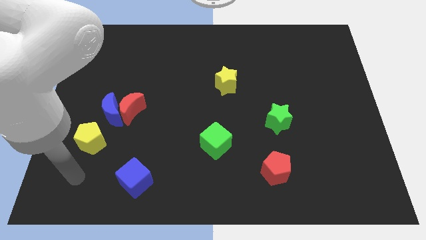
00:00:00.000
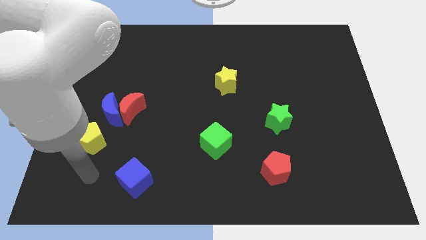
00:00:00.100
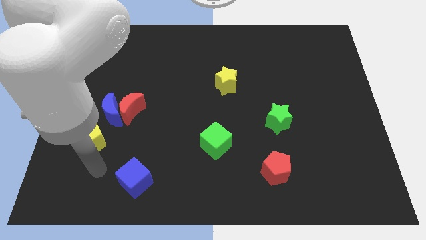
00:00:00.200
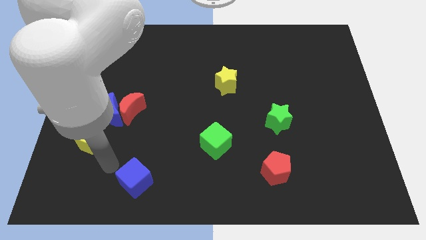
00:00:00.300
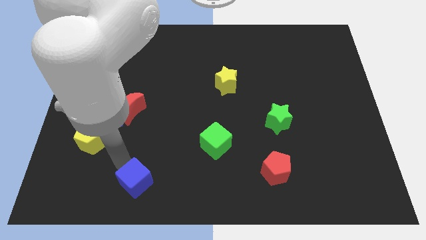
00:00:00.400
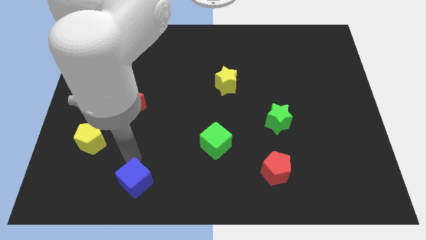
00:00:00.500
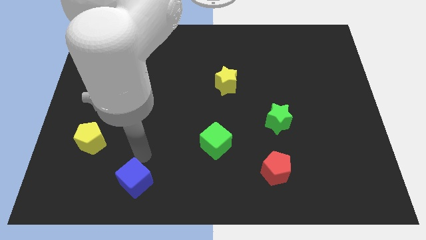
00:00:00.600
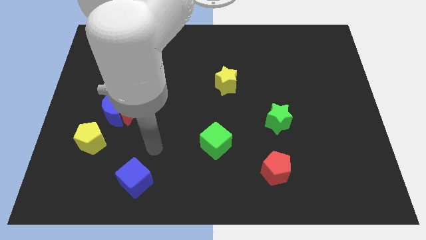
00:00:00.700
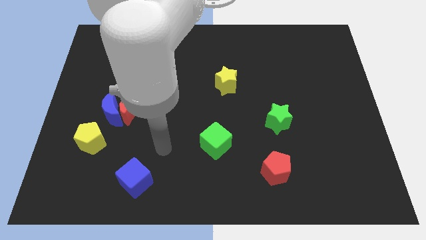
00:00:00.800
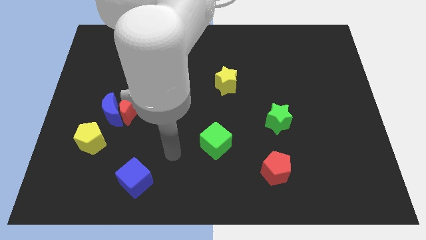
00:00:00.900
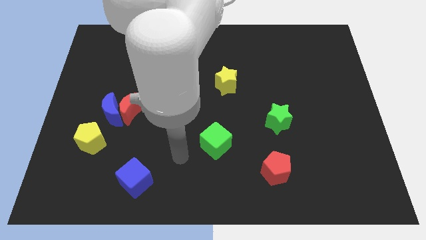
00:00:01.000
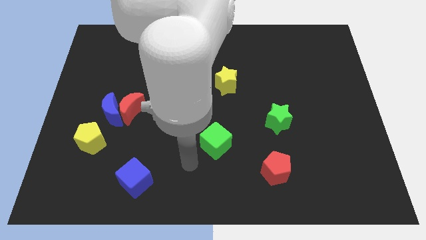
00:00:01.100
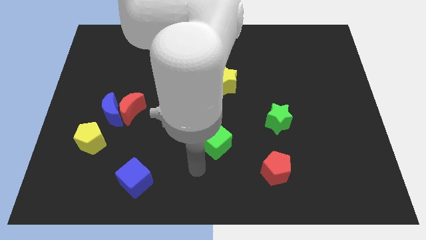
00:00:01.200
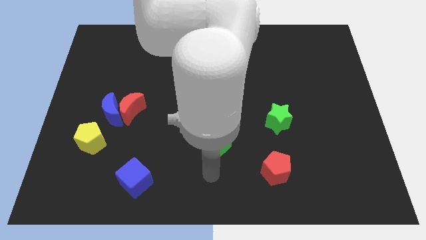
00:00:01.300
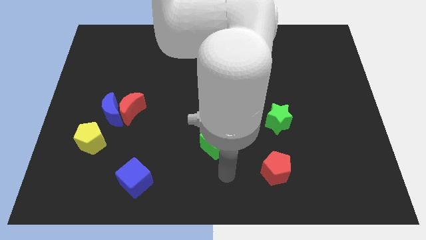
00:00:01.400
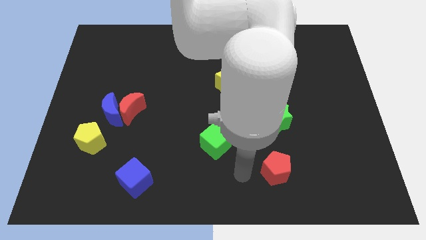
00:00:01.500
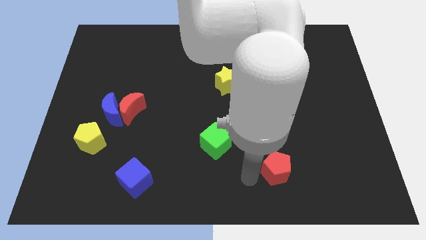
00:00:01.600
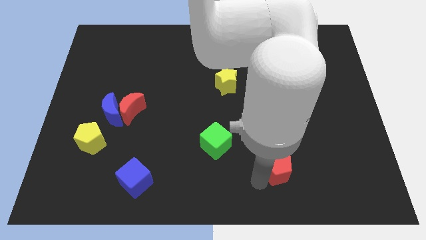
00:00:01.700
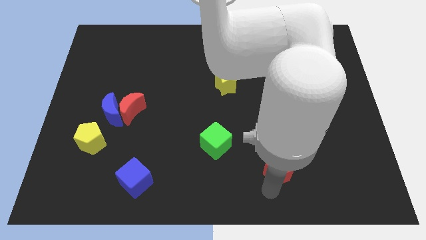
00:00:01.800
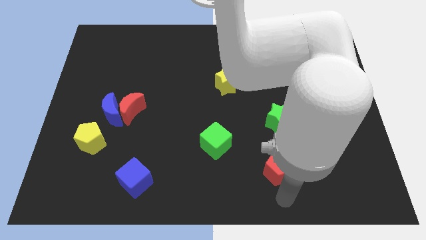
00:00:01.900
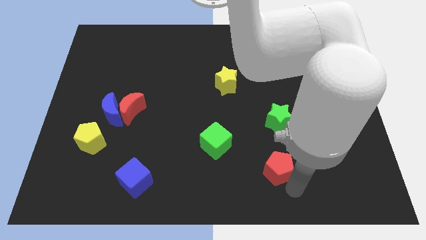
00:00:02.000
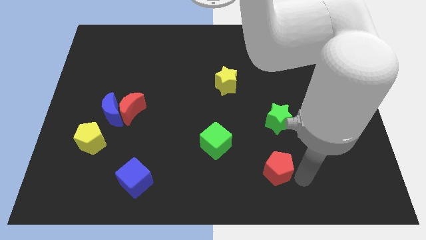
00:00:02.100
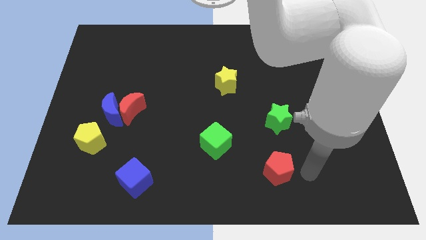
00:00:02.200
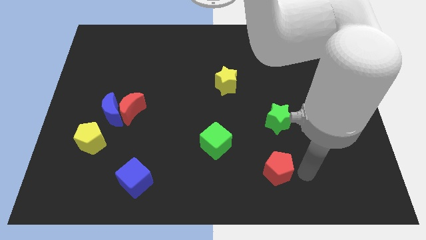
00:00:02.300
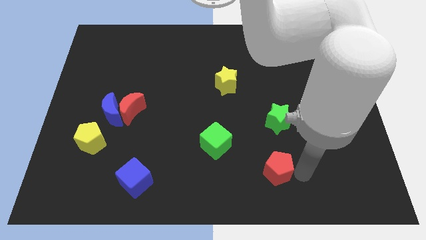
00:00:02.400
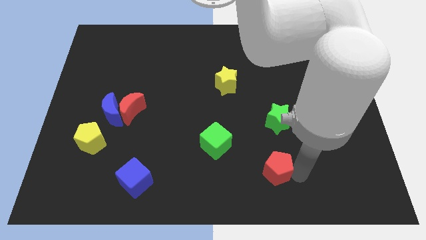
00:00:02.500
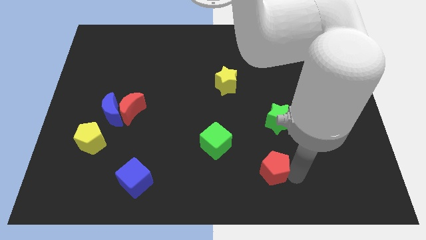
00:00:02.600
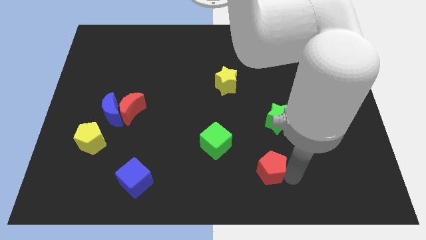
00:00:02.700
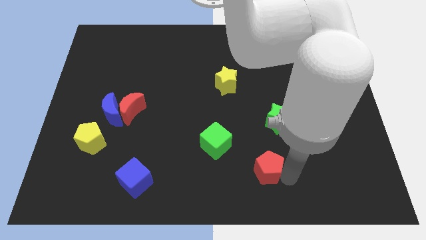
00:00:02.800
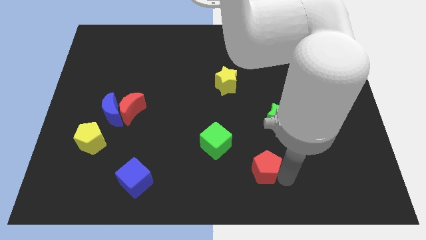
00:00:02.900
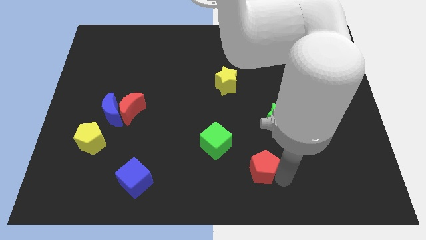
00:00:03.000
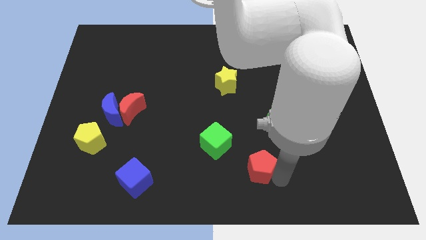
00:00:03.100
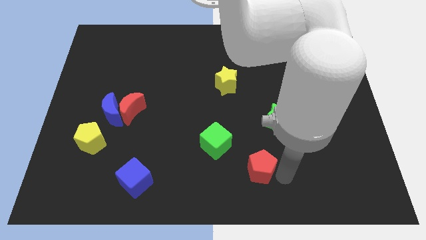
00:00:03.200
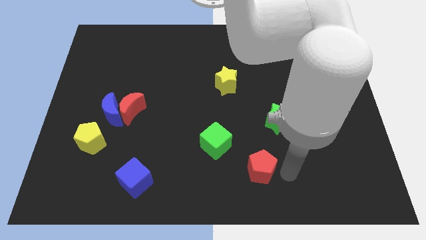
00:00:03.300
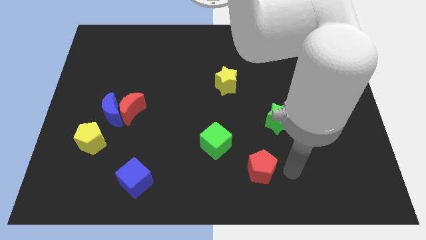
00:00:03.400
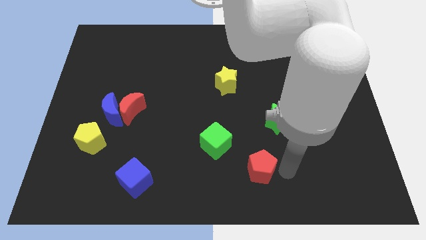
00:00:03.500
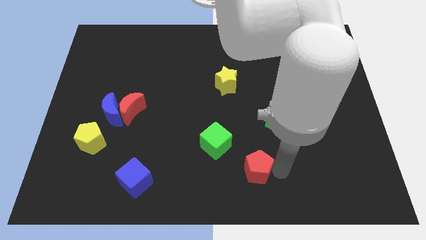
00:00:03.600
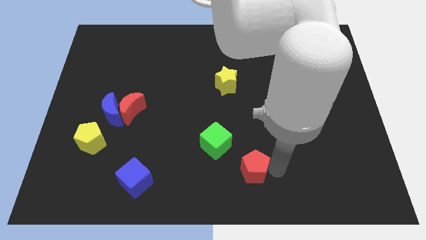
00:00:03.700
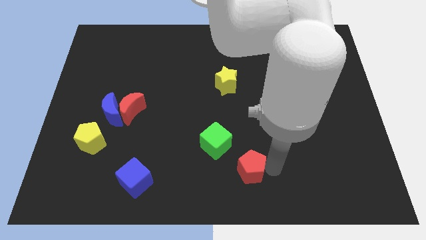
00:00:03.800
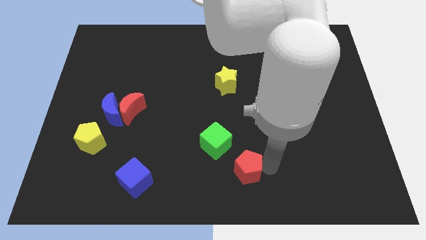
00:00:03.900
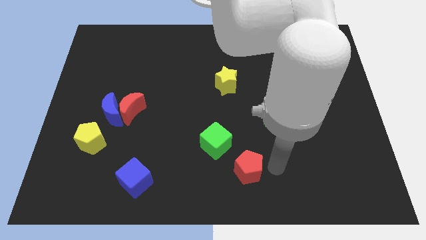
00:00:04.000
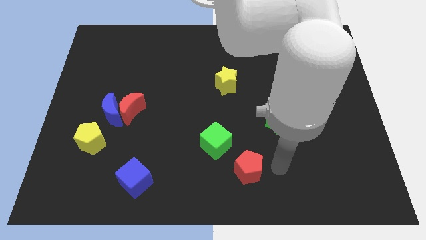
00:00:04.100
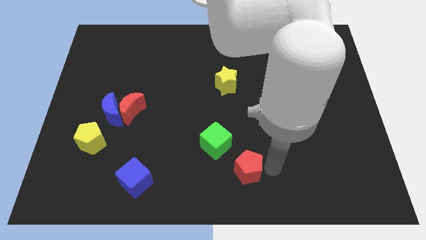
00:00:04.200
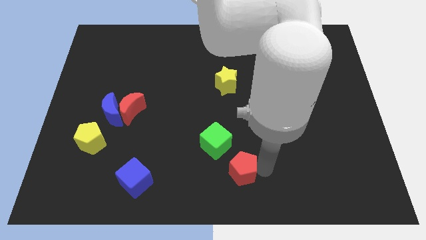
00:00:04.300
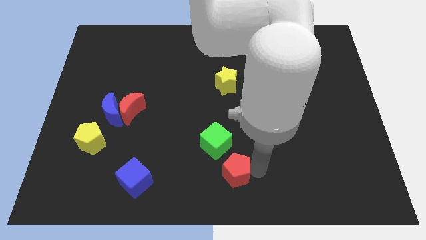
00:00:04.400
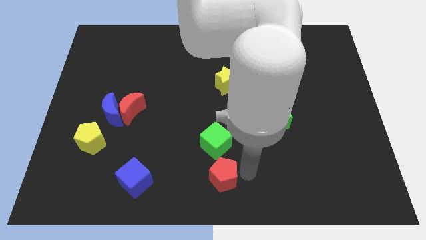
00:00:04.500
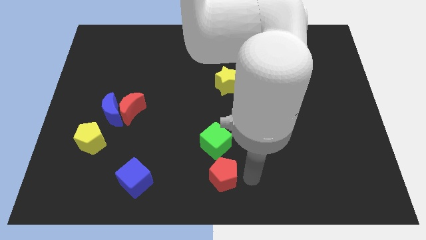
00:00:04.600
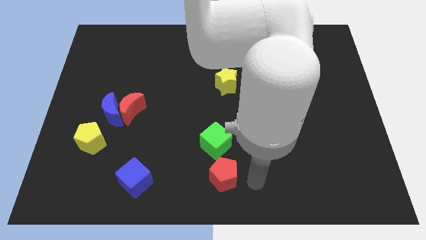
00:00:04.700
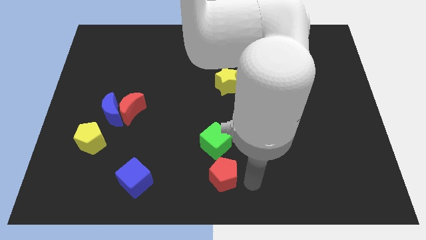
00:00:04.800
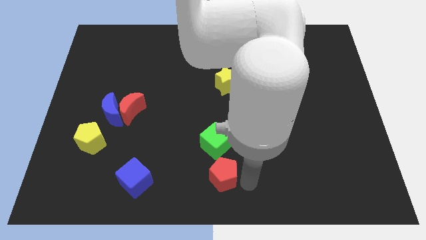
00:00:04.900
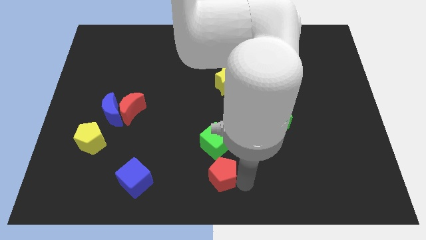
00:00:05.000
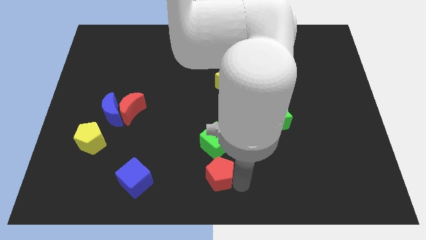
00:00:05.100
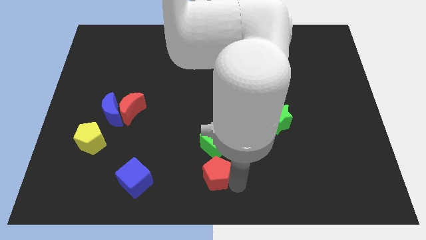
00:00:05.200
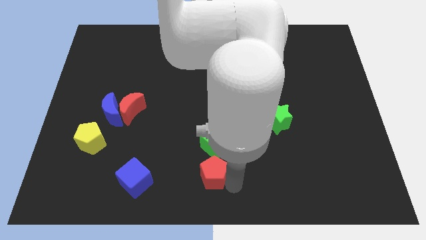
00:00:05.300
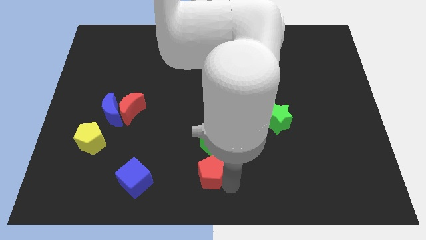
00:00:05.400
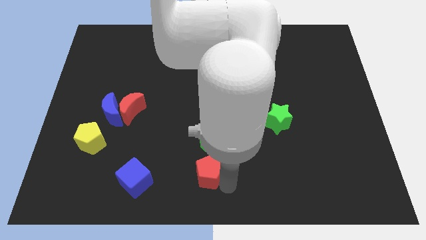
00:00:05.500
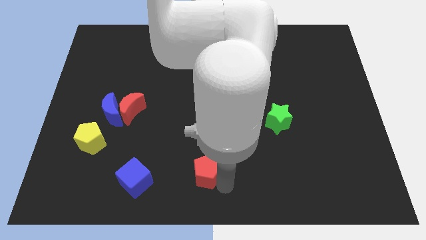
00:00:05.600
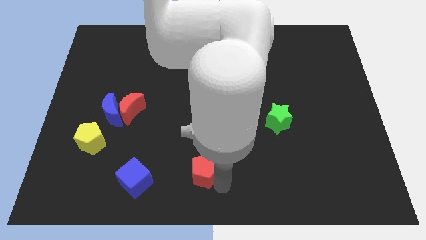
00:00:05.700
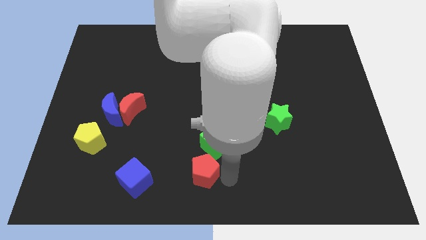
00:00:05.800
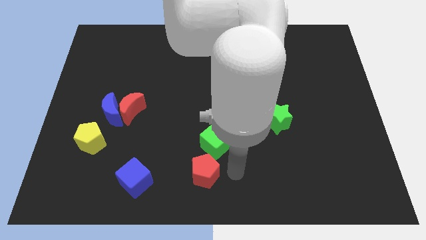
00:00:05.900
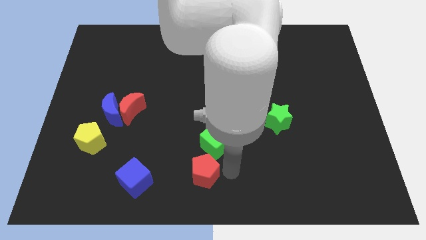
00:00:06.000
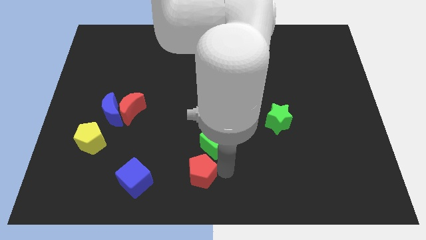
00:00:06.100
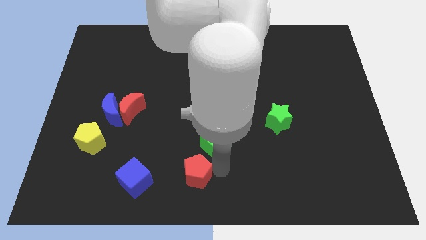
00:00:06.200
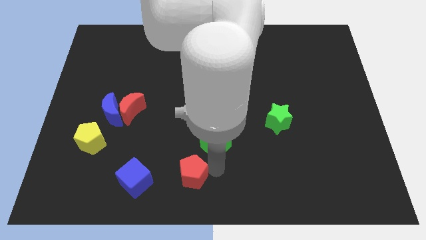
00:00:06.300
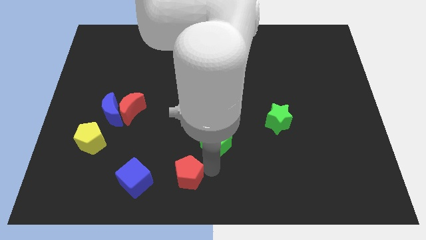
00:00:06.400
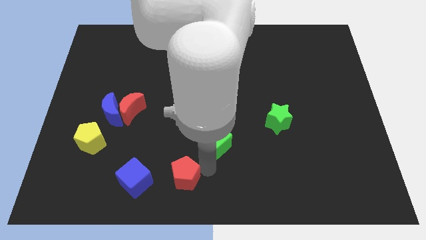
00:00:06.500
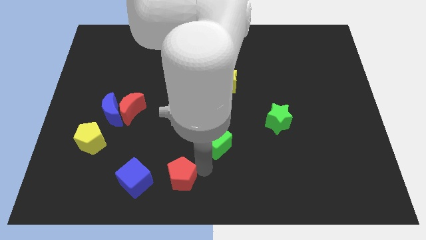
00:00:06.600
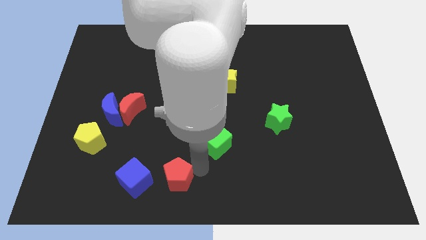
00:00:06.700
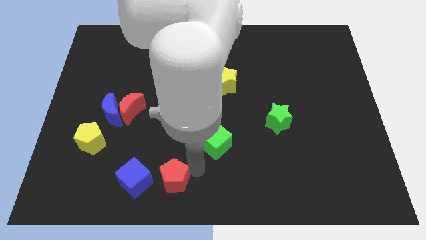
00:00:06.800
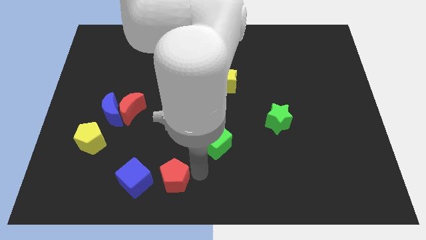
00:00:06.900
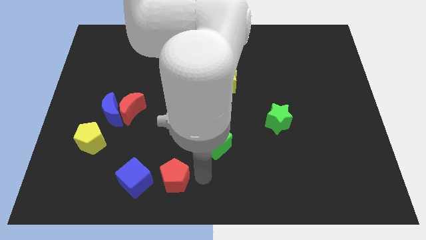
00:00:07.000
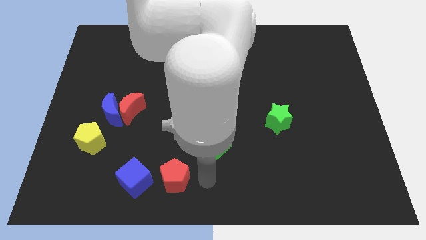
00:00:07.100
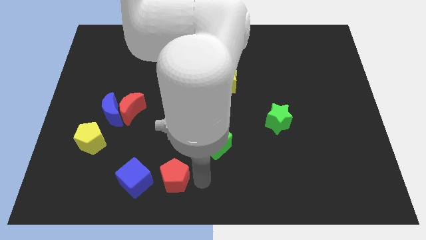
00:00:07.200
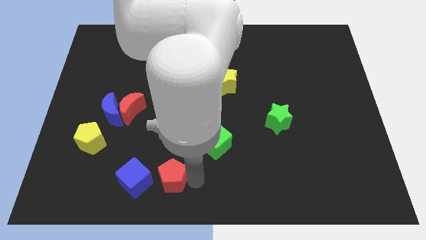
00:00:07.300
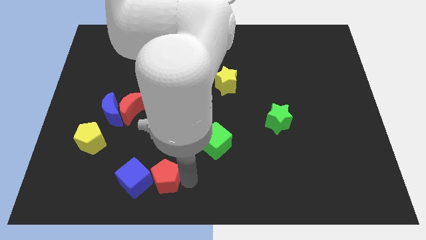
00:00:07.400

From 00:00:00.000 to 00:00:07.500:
move the red pentagon next to the blue cube
